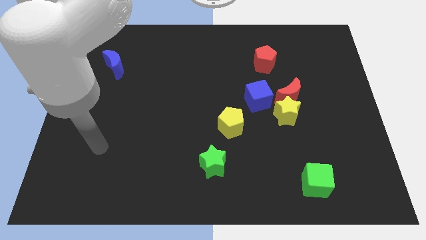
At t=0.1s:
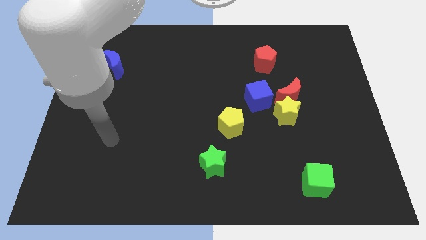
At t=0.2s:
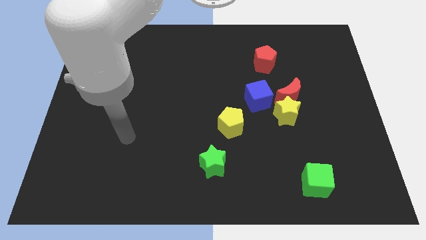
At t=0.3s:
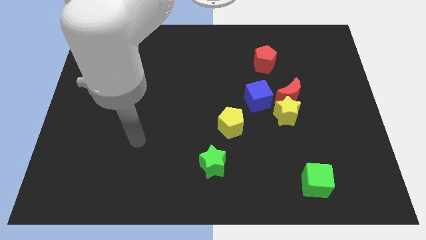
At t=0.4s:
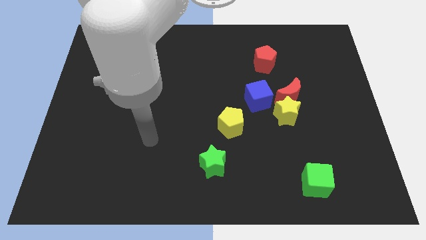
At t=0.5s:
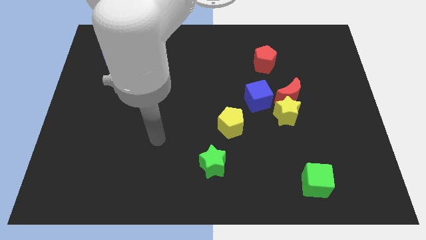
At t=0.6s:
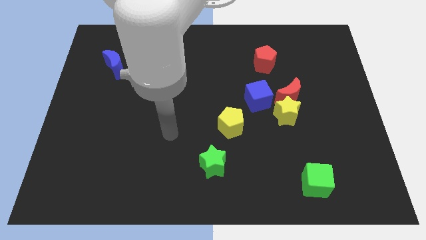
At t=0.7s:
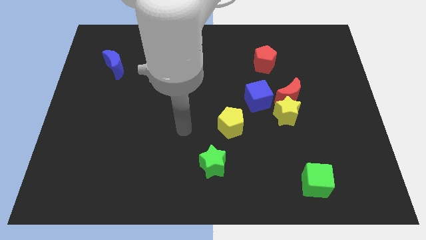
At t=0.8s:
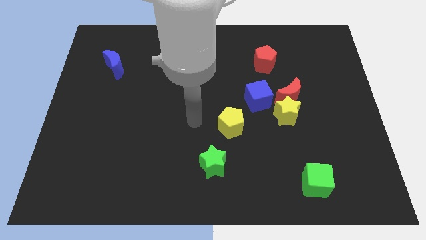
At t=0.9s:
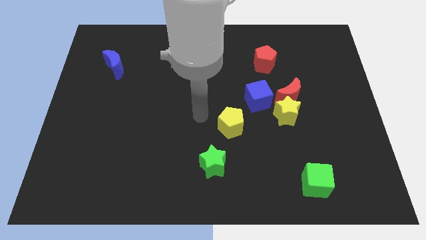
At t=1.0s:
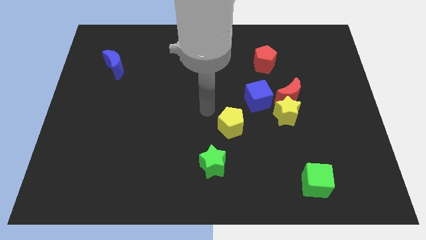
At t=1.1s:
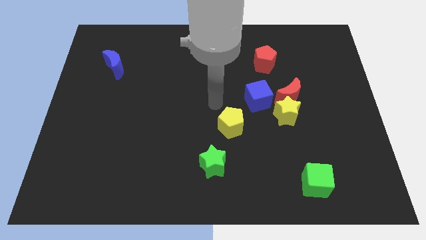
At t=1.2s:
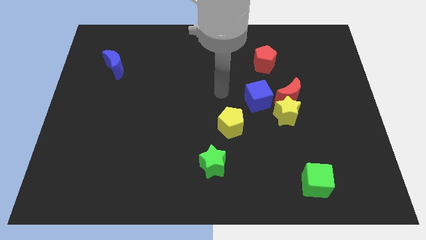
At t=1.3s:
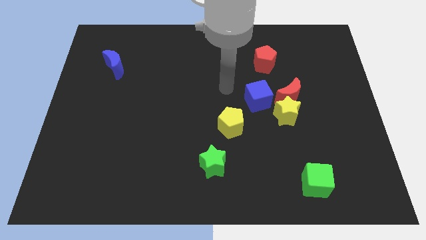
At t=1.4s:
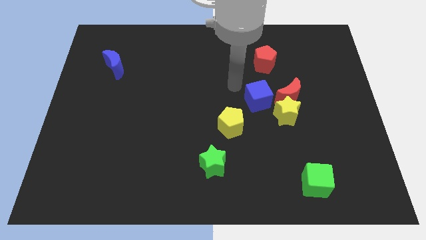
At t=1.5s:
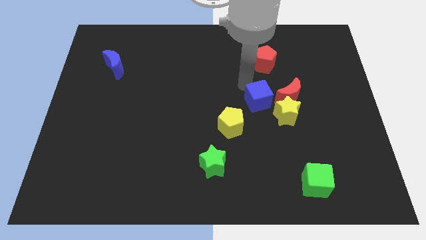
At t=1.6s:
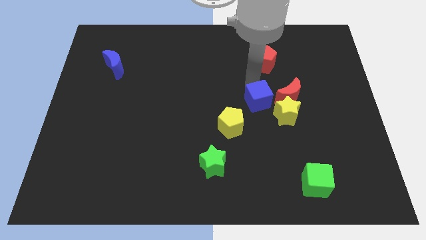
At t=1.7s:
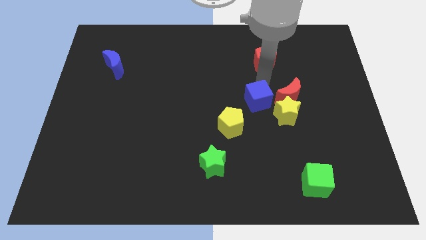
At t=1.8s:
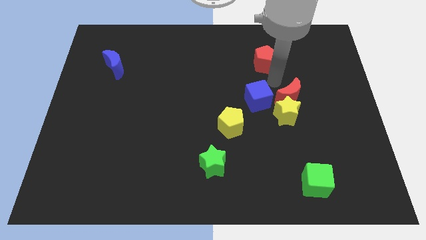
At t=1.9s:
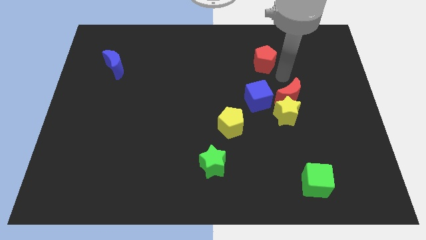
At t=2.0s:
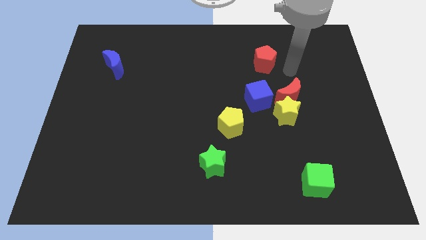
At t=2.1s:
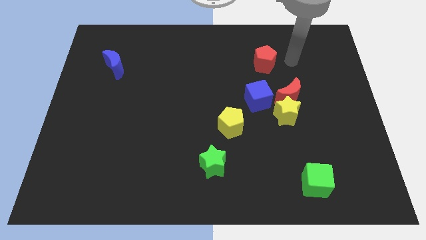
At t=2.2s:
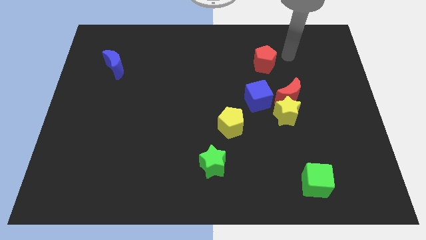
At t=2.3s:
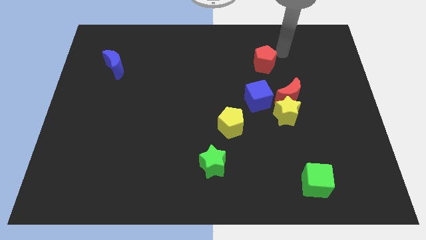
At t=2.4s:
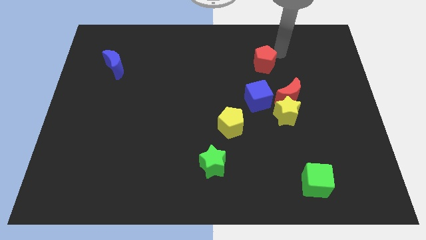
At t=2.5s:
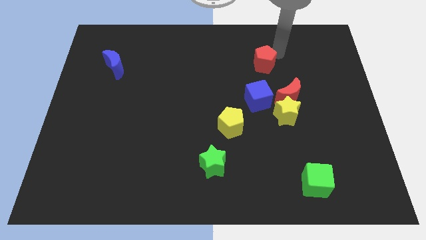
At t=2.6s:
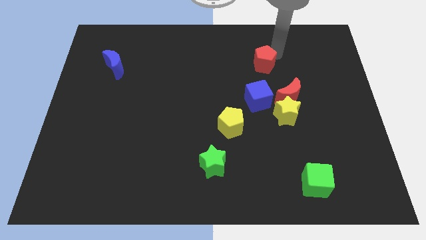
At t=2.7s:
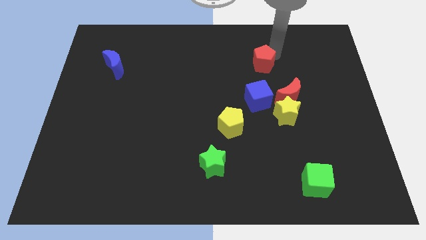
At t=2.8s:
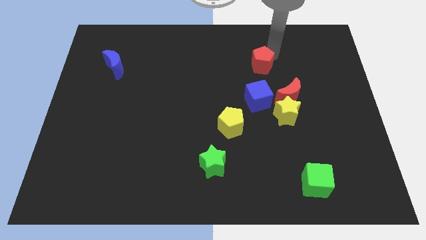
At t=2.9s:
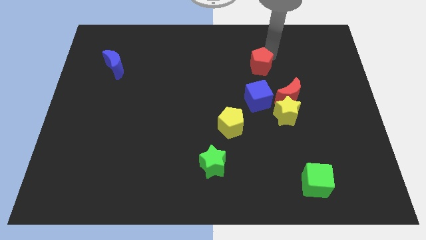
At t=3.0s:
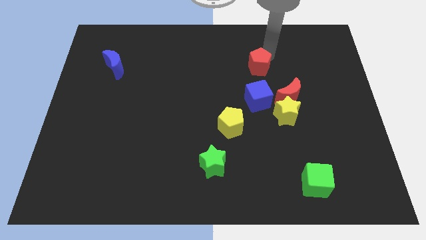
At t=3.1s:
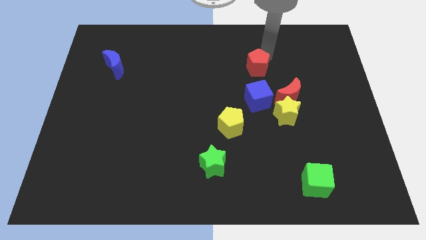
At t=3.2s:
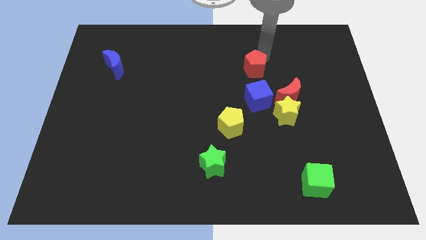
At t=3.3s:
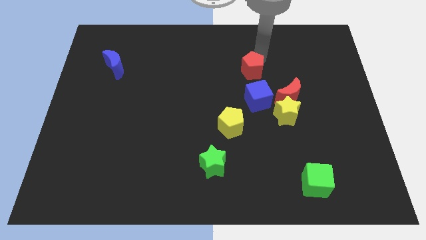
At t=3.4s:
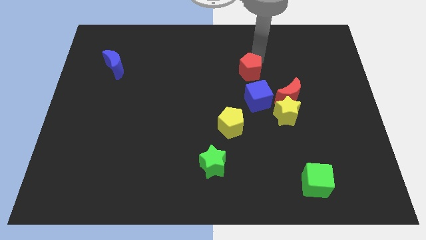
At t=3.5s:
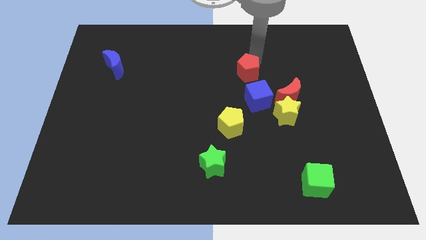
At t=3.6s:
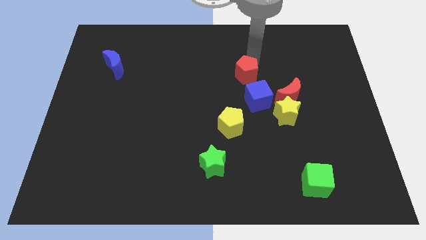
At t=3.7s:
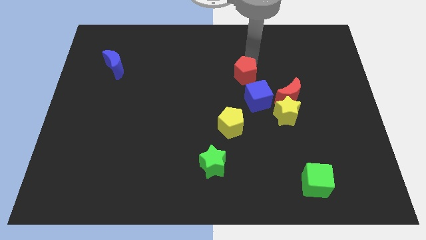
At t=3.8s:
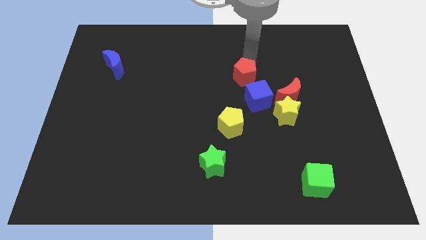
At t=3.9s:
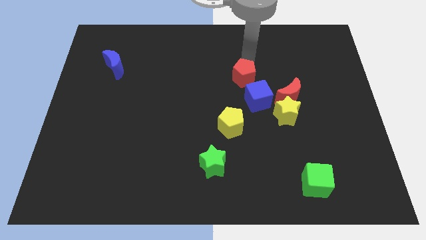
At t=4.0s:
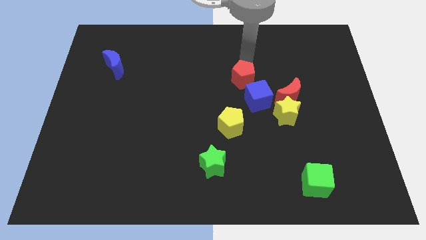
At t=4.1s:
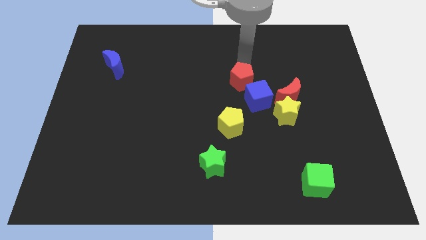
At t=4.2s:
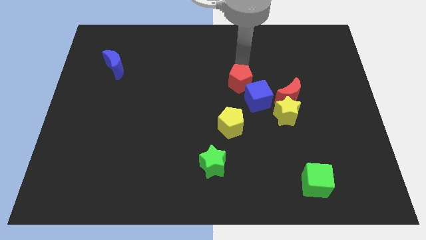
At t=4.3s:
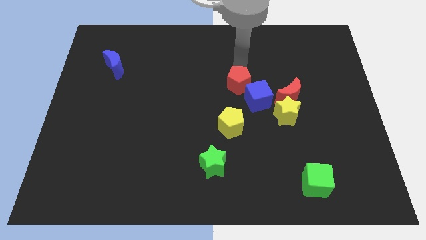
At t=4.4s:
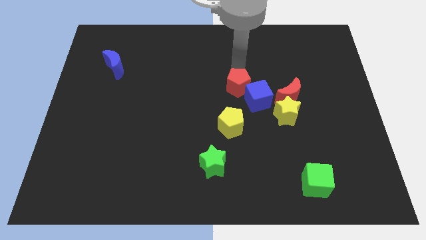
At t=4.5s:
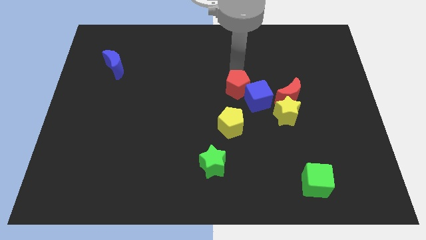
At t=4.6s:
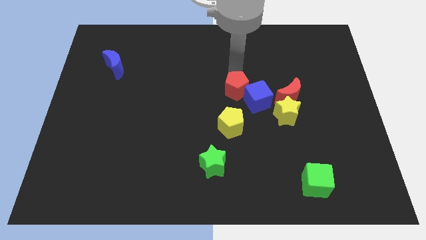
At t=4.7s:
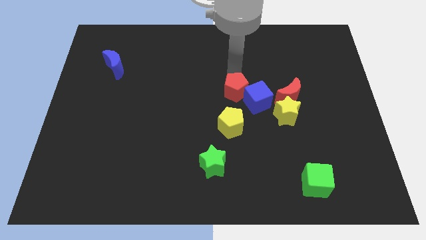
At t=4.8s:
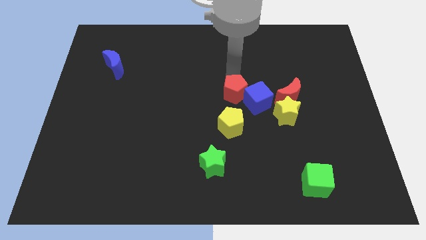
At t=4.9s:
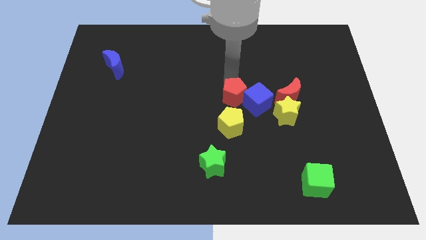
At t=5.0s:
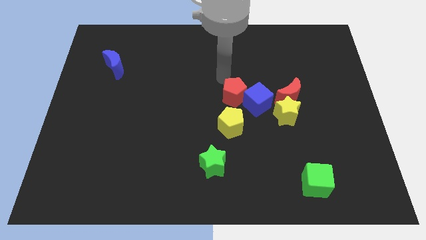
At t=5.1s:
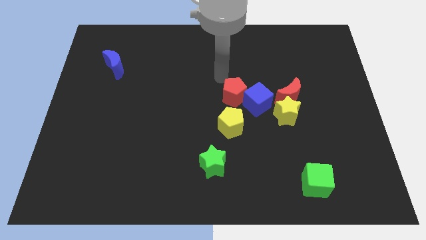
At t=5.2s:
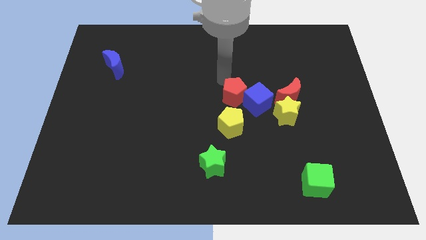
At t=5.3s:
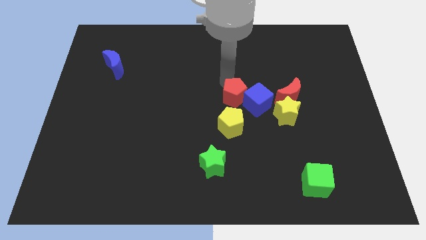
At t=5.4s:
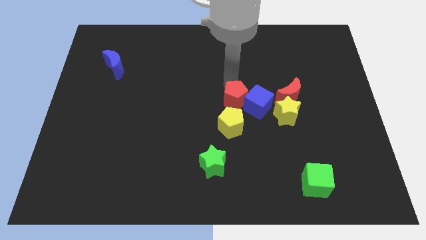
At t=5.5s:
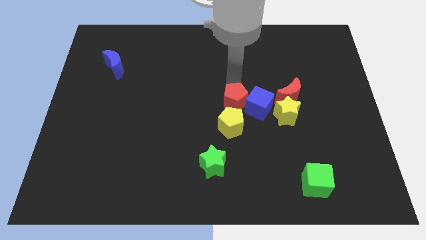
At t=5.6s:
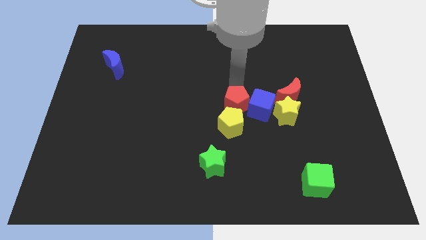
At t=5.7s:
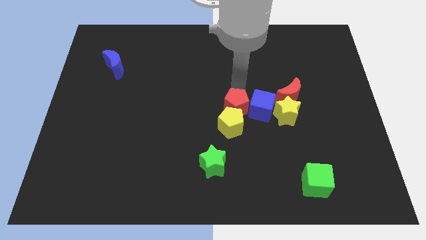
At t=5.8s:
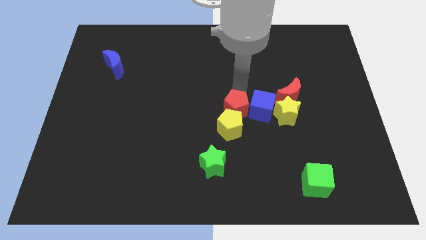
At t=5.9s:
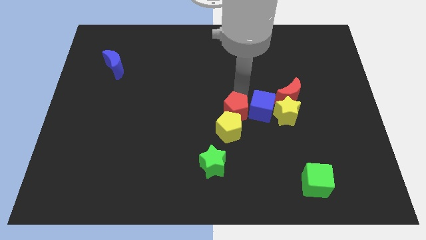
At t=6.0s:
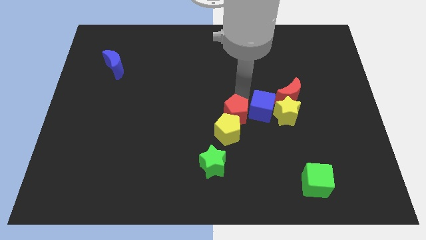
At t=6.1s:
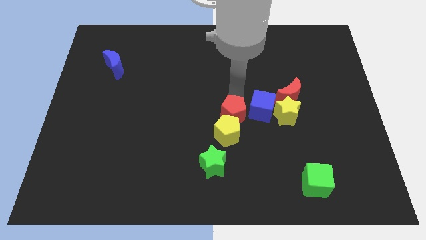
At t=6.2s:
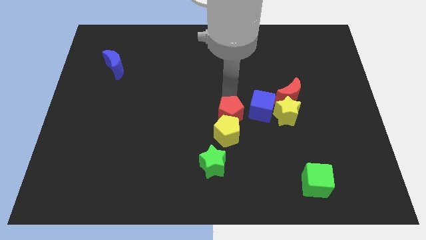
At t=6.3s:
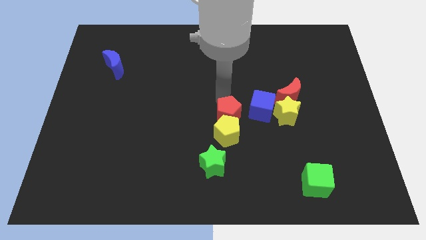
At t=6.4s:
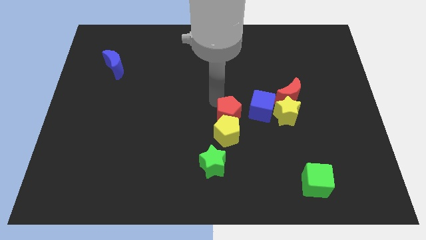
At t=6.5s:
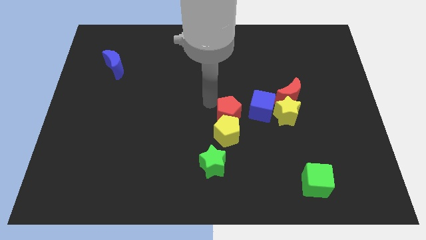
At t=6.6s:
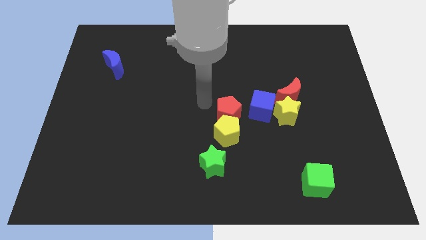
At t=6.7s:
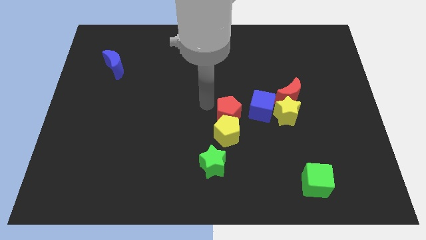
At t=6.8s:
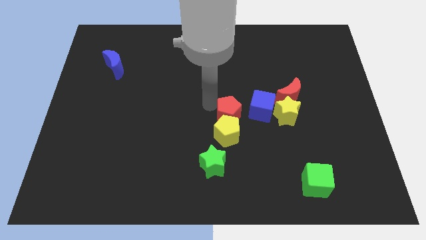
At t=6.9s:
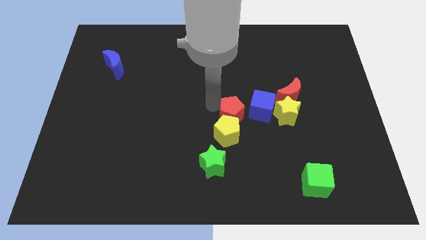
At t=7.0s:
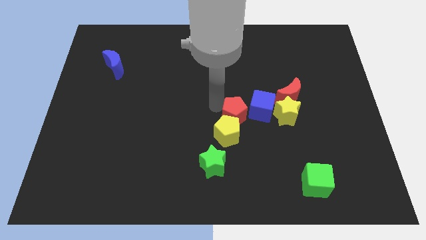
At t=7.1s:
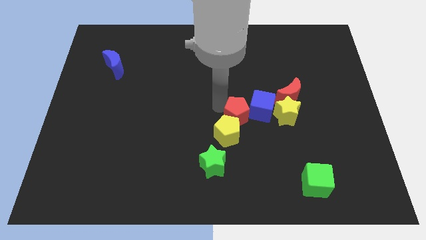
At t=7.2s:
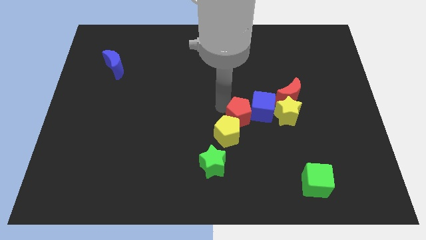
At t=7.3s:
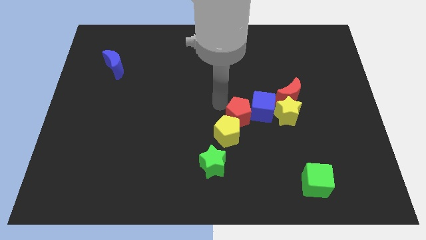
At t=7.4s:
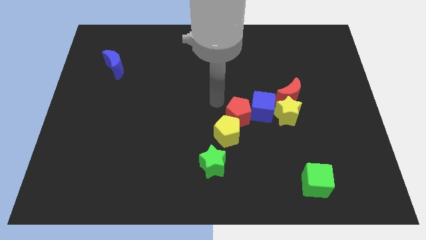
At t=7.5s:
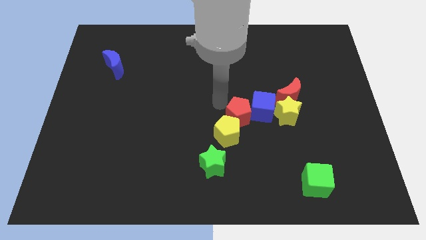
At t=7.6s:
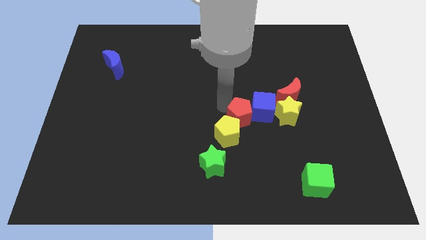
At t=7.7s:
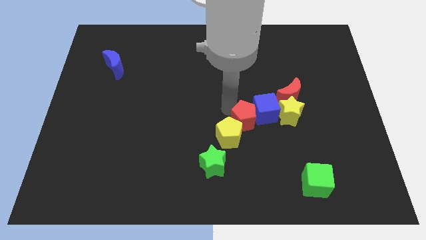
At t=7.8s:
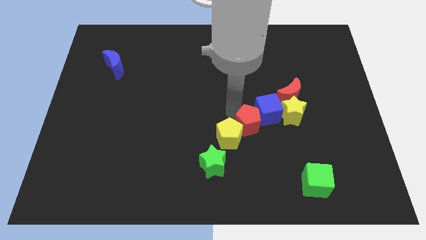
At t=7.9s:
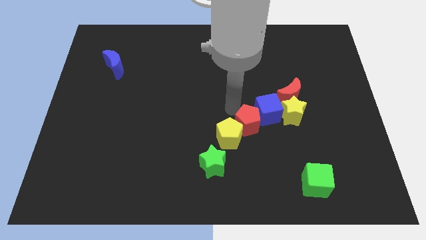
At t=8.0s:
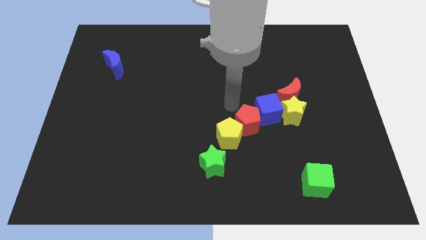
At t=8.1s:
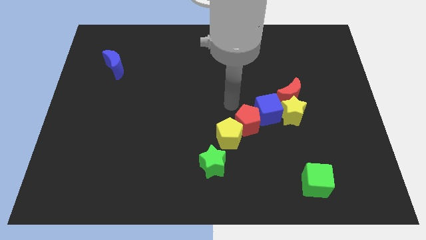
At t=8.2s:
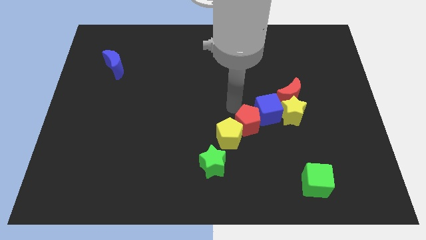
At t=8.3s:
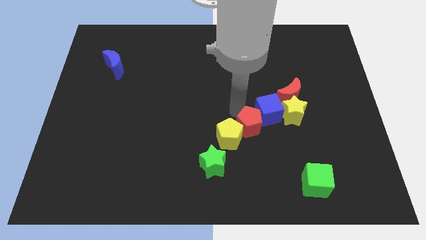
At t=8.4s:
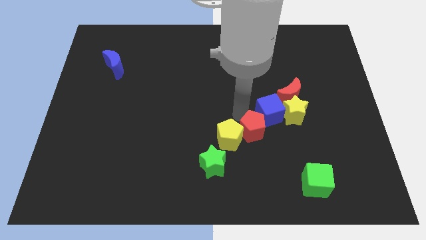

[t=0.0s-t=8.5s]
move the red pentagon down
